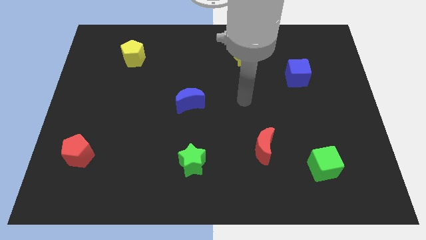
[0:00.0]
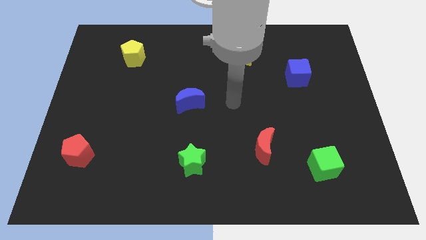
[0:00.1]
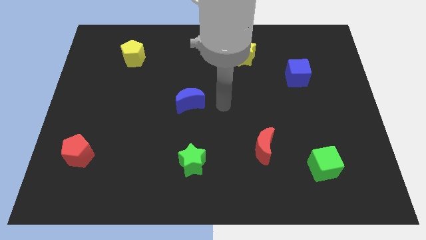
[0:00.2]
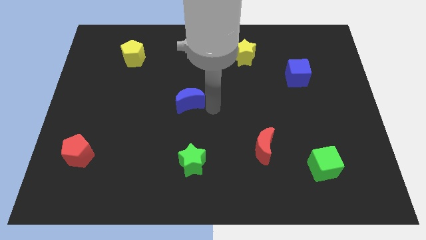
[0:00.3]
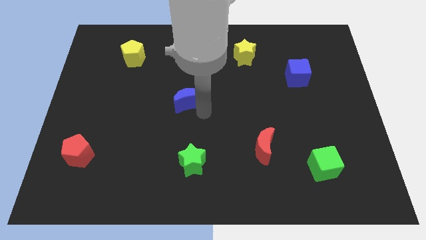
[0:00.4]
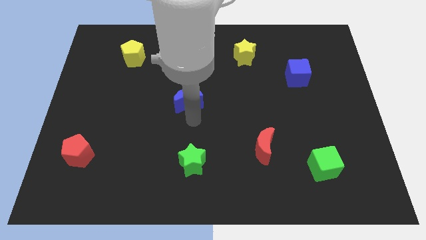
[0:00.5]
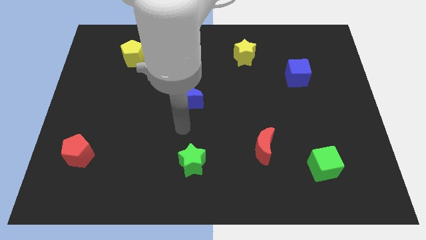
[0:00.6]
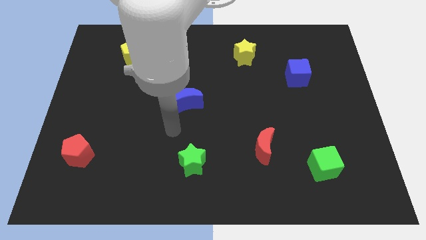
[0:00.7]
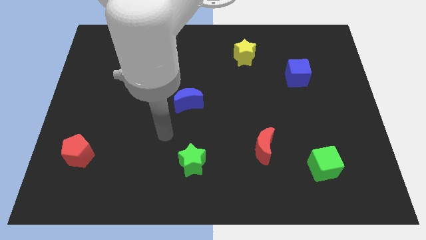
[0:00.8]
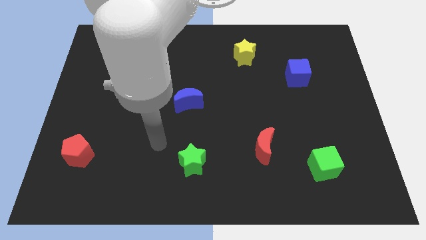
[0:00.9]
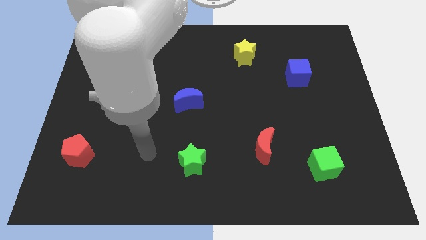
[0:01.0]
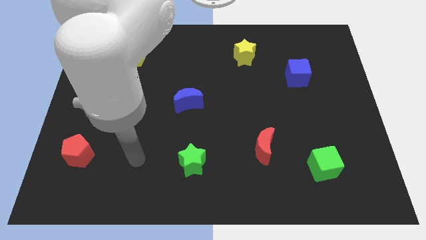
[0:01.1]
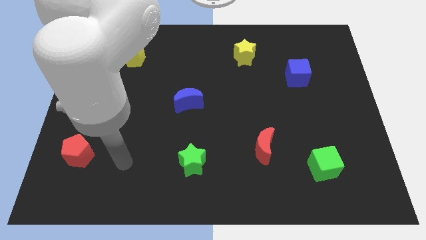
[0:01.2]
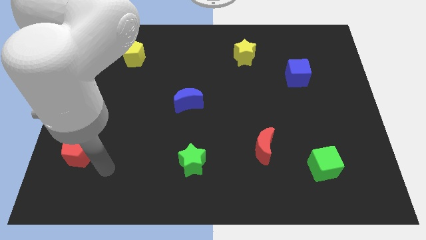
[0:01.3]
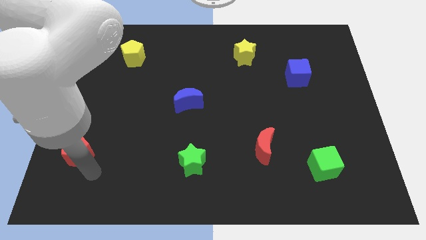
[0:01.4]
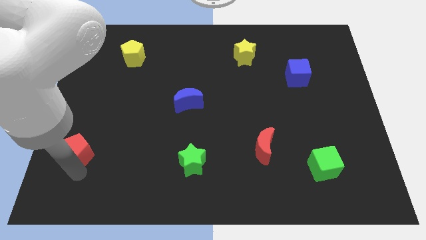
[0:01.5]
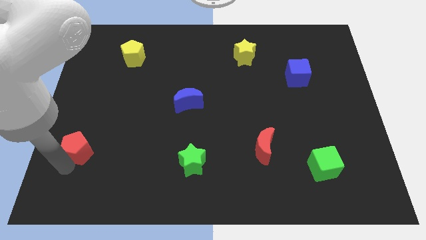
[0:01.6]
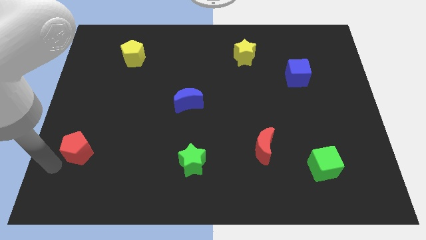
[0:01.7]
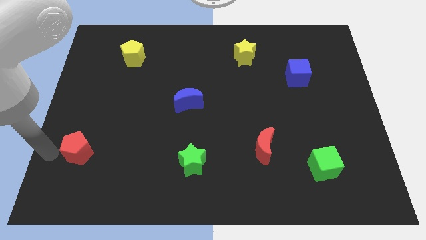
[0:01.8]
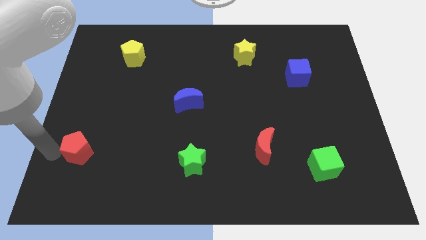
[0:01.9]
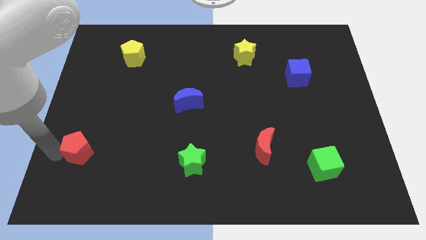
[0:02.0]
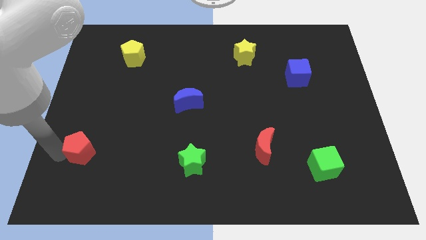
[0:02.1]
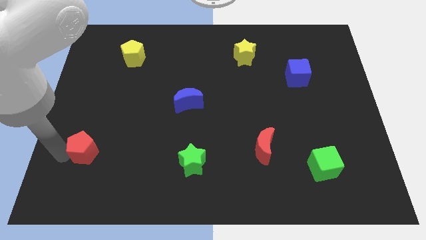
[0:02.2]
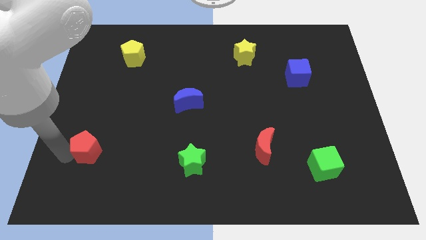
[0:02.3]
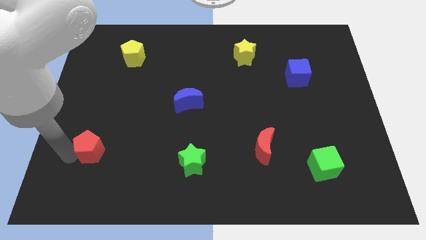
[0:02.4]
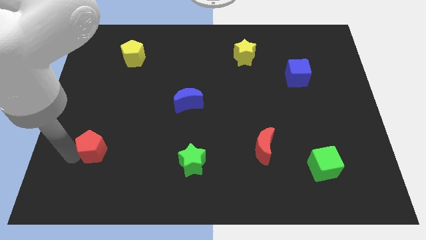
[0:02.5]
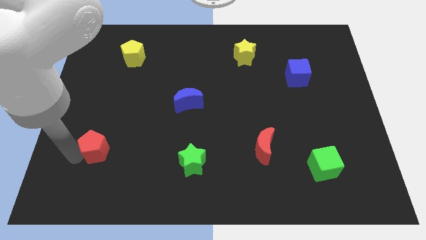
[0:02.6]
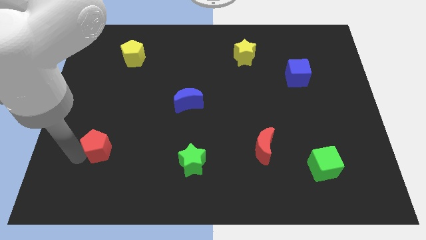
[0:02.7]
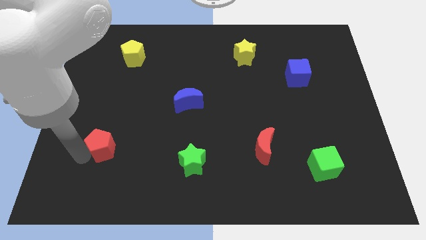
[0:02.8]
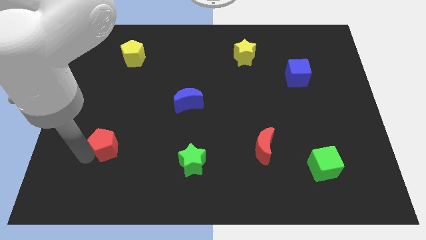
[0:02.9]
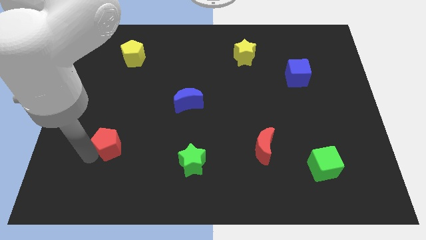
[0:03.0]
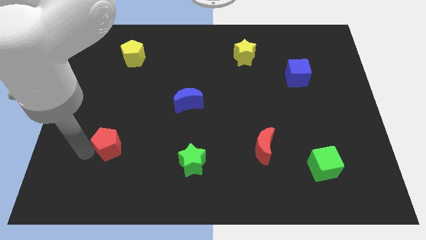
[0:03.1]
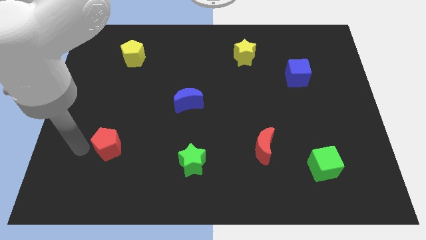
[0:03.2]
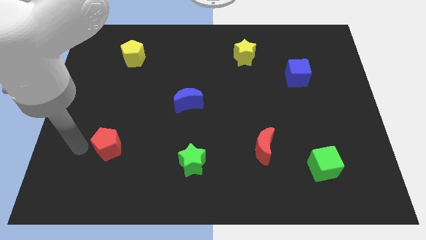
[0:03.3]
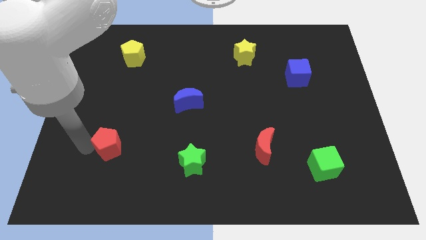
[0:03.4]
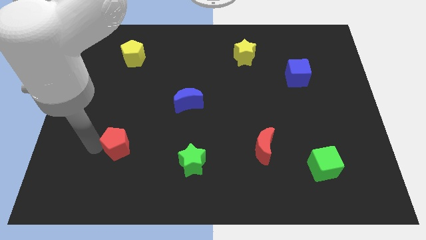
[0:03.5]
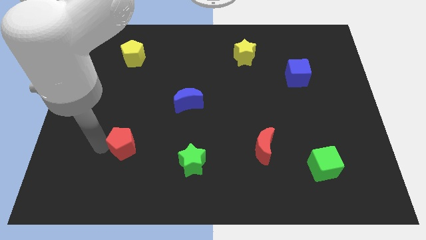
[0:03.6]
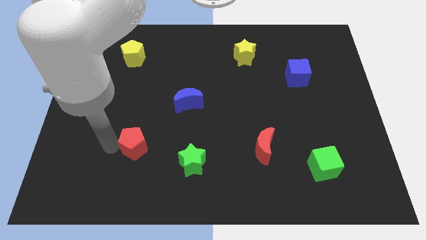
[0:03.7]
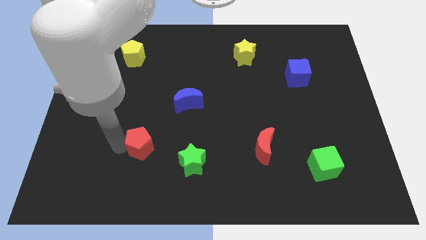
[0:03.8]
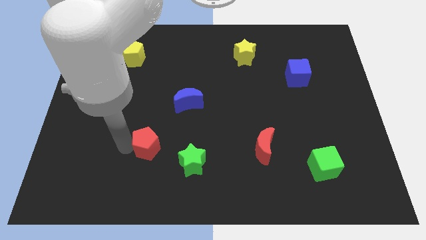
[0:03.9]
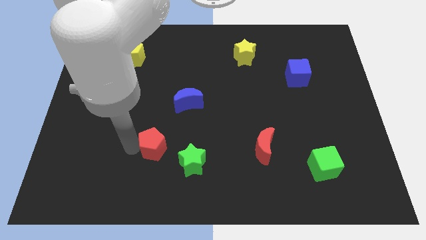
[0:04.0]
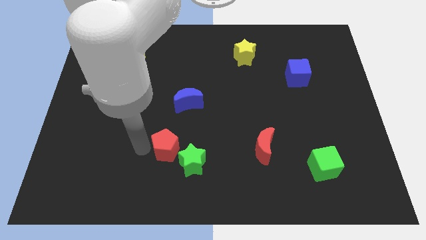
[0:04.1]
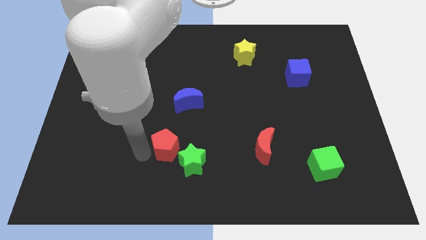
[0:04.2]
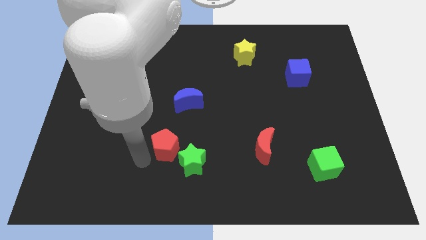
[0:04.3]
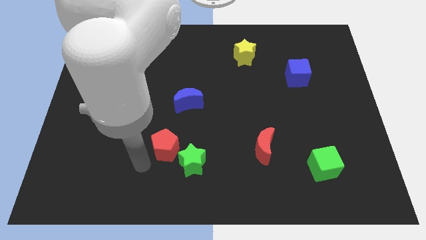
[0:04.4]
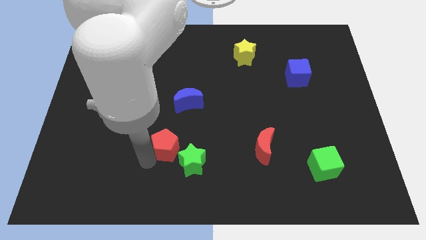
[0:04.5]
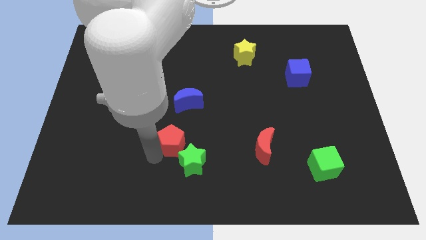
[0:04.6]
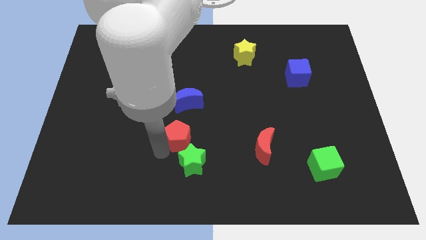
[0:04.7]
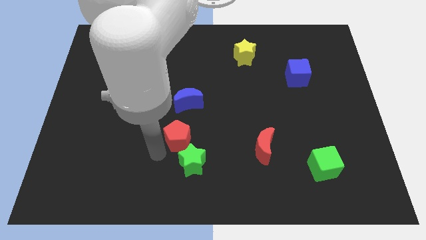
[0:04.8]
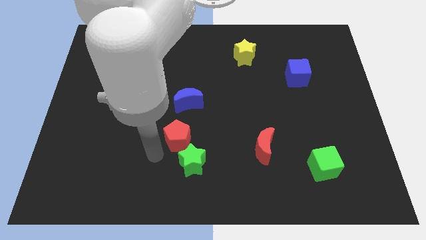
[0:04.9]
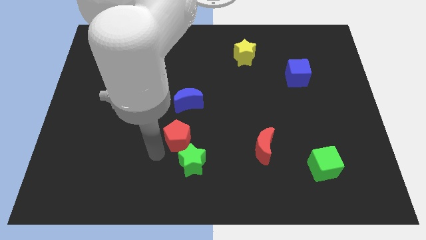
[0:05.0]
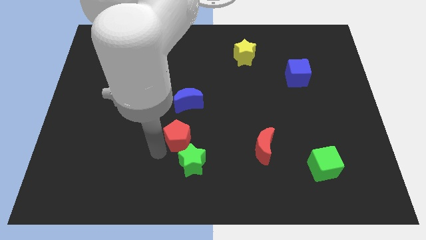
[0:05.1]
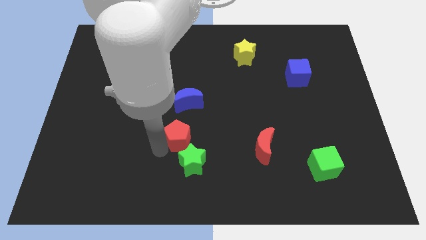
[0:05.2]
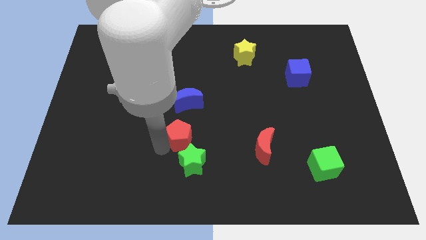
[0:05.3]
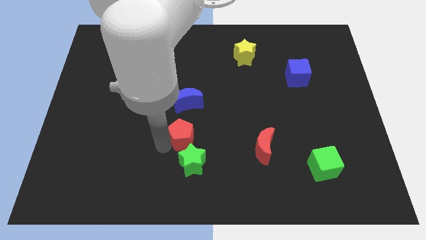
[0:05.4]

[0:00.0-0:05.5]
slide the red pentagon to the center

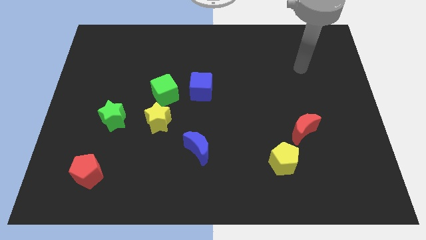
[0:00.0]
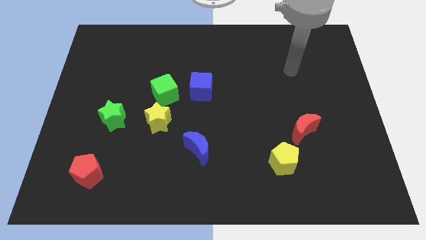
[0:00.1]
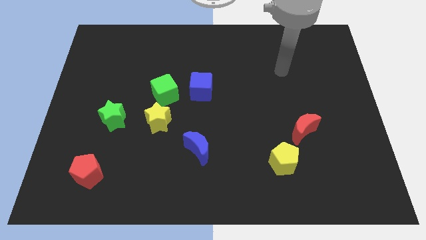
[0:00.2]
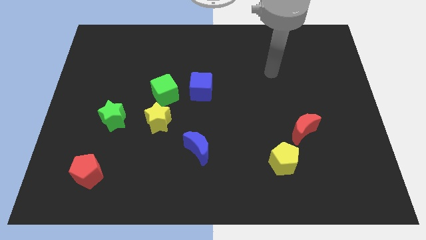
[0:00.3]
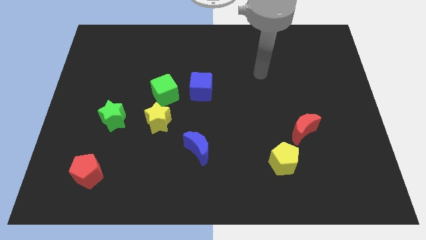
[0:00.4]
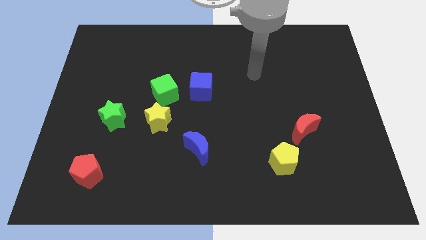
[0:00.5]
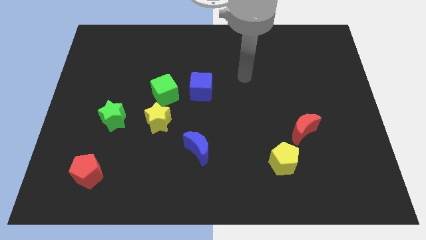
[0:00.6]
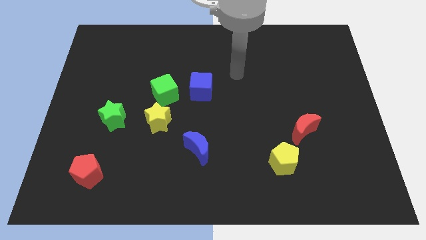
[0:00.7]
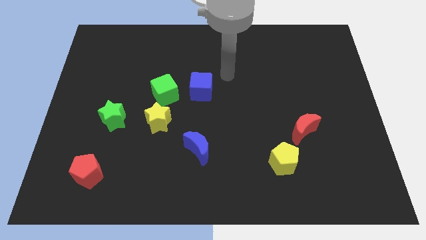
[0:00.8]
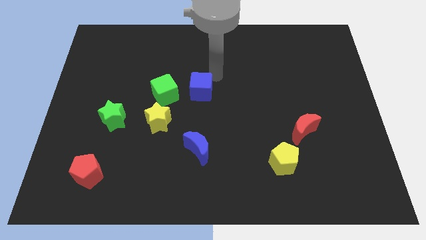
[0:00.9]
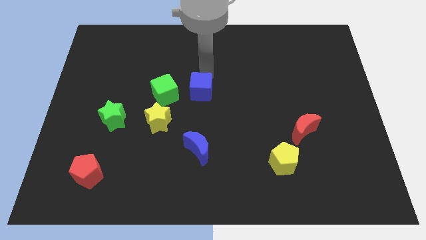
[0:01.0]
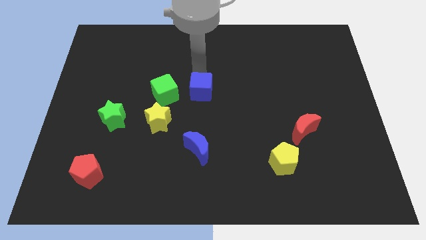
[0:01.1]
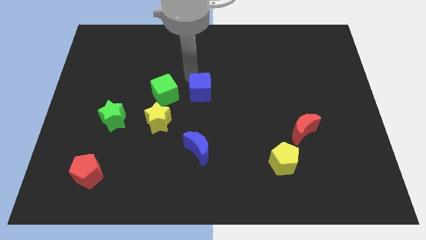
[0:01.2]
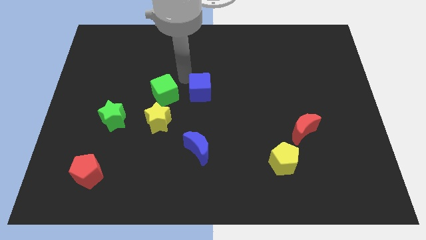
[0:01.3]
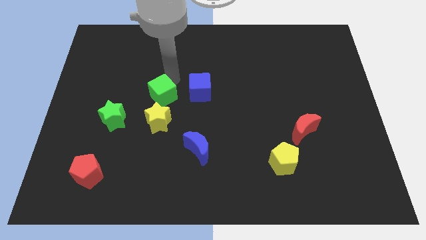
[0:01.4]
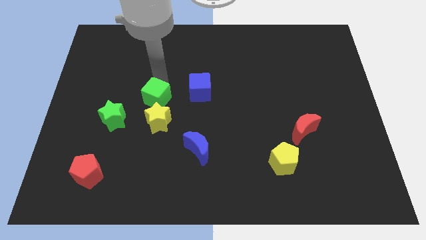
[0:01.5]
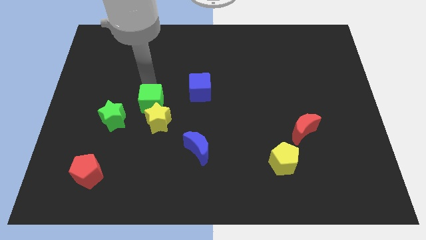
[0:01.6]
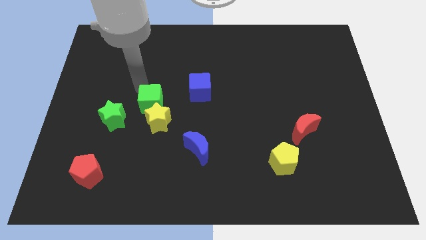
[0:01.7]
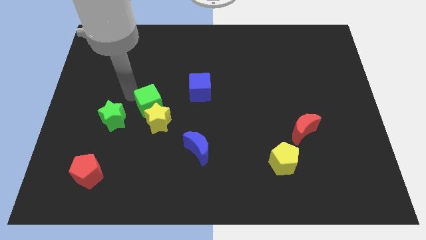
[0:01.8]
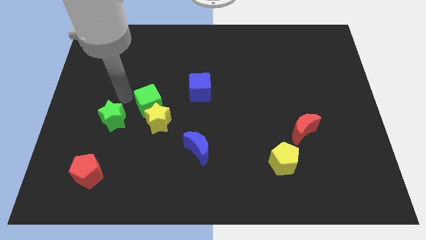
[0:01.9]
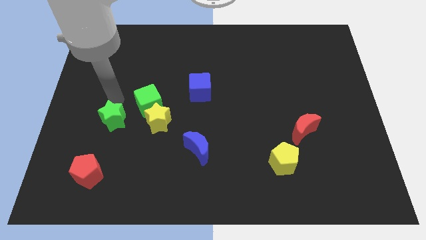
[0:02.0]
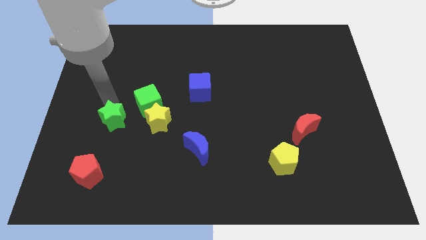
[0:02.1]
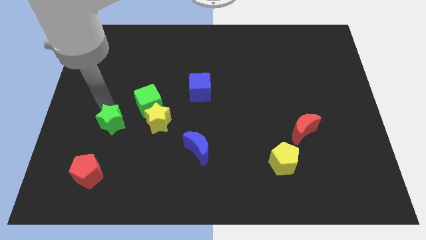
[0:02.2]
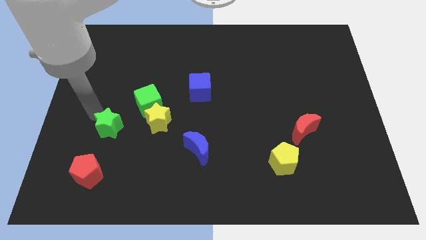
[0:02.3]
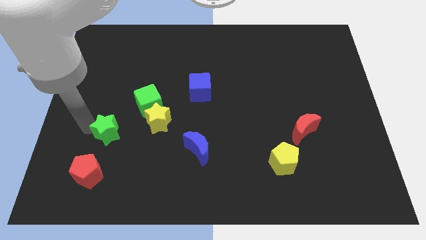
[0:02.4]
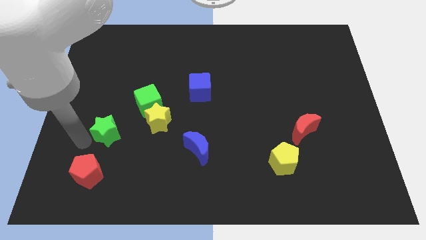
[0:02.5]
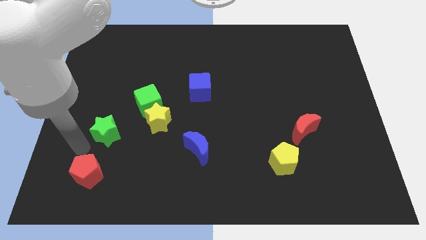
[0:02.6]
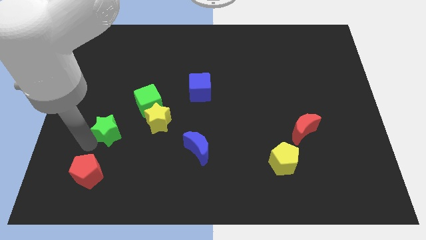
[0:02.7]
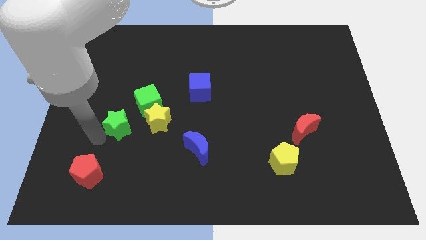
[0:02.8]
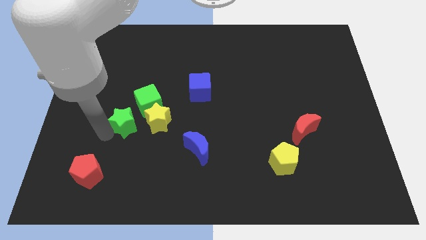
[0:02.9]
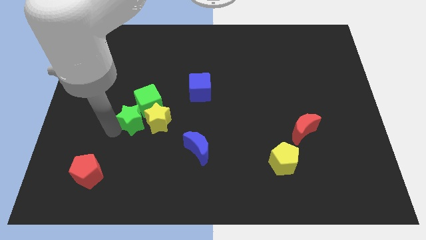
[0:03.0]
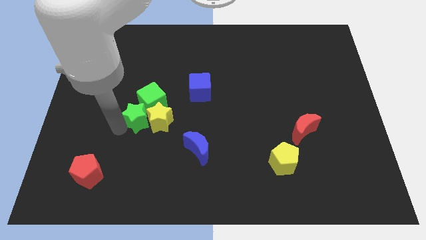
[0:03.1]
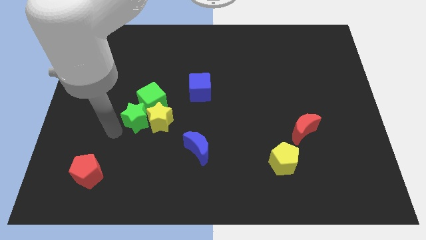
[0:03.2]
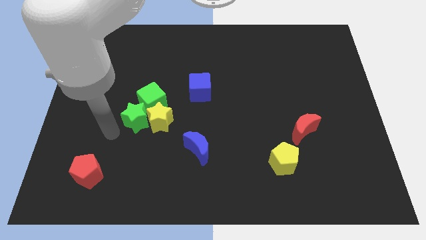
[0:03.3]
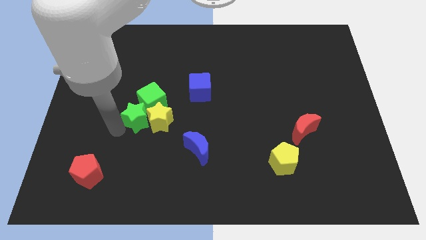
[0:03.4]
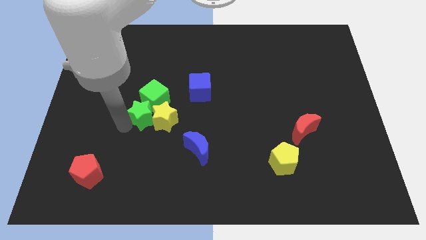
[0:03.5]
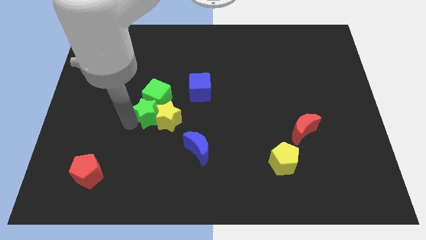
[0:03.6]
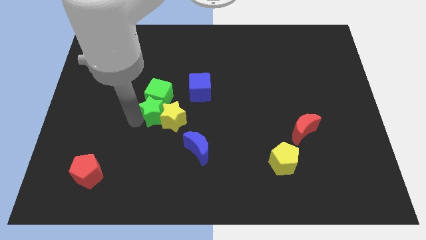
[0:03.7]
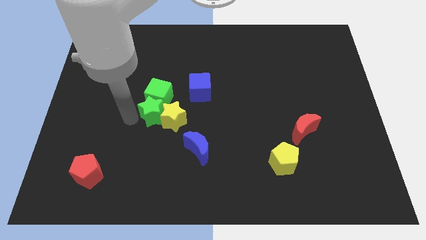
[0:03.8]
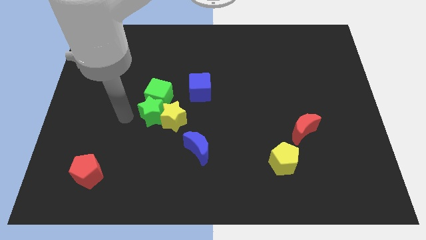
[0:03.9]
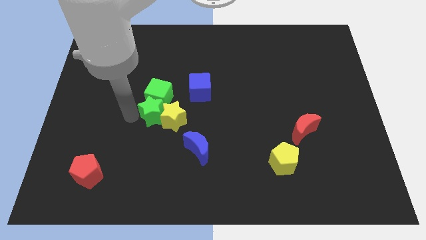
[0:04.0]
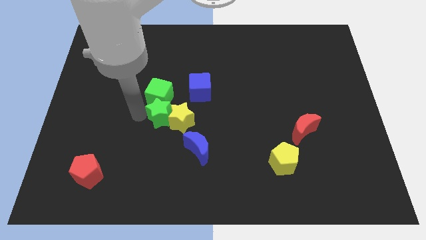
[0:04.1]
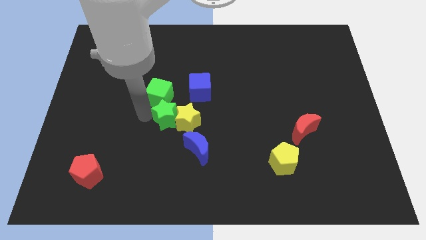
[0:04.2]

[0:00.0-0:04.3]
push the green star to the middle
